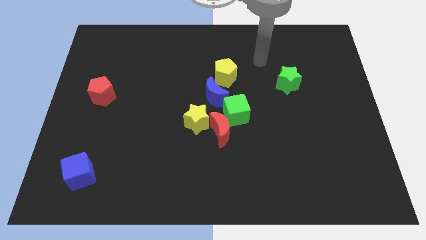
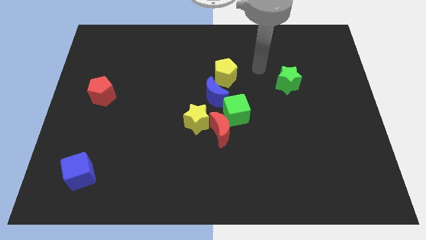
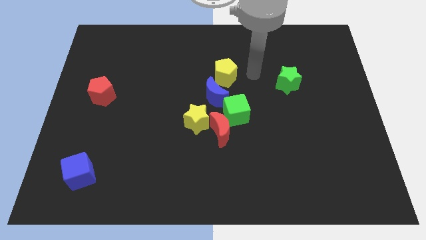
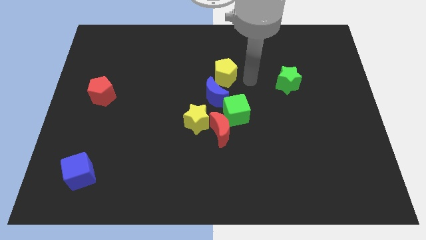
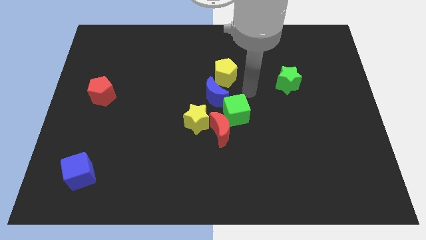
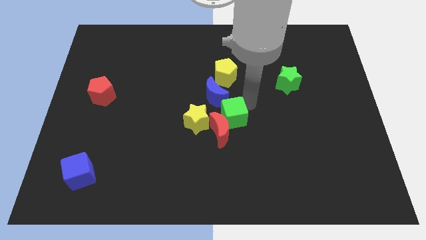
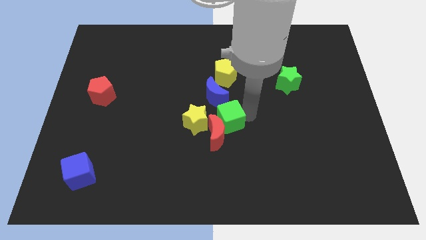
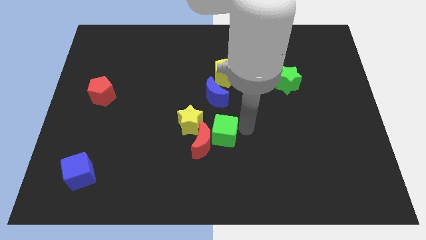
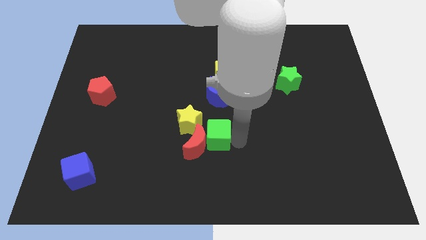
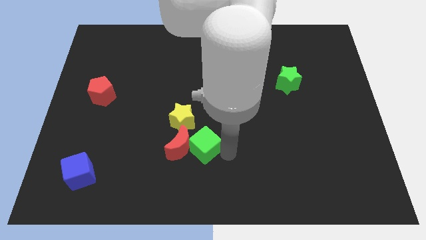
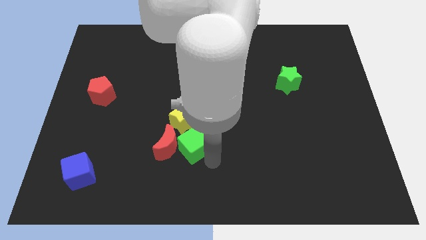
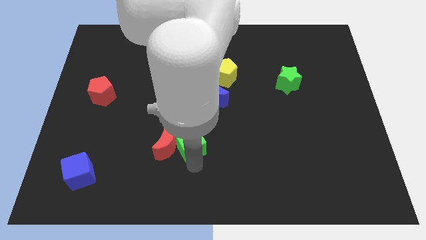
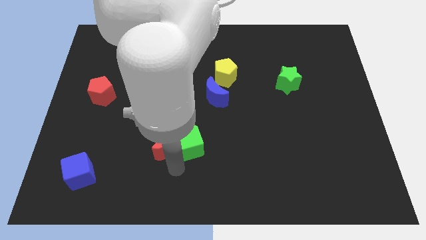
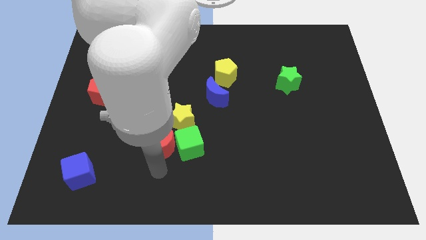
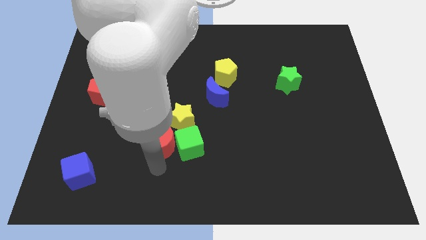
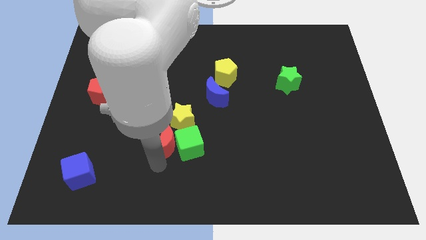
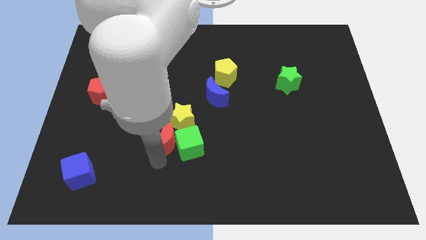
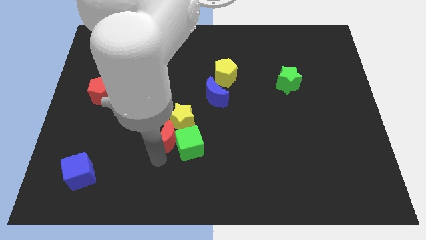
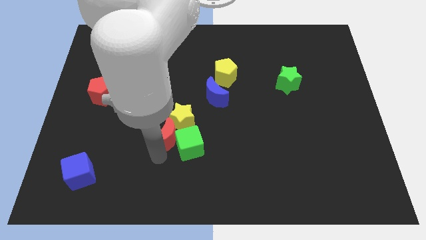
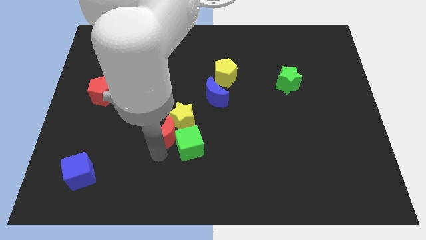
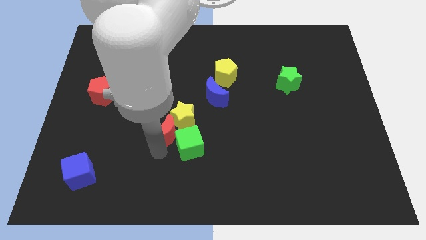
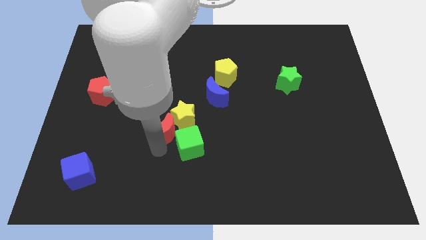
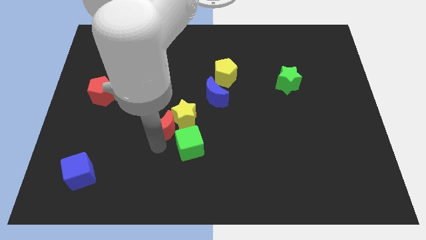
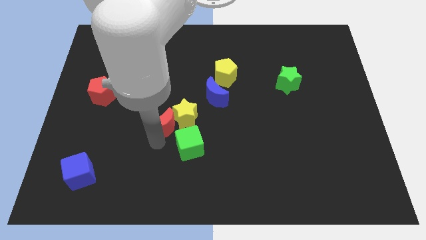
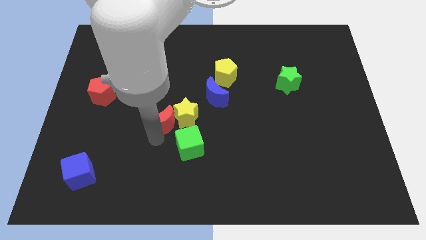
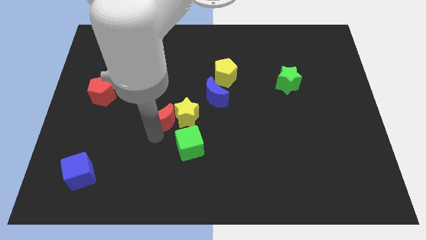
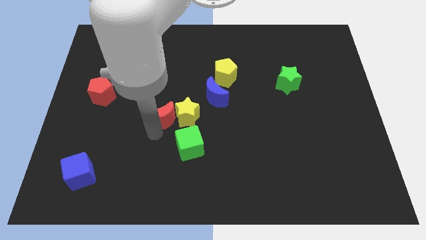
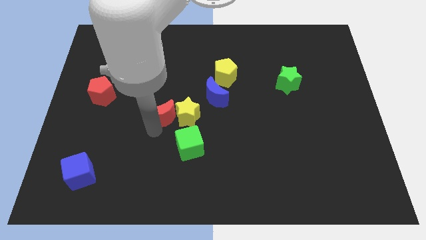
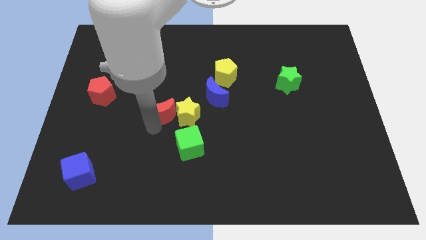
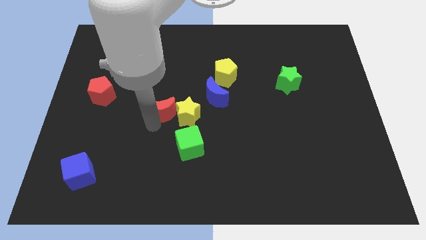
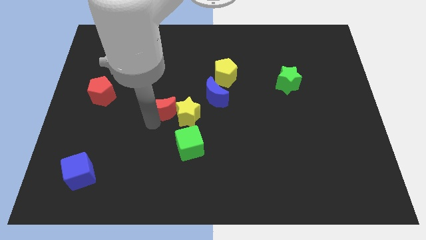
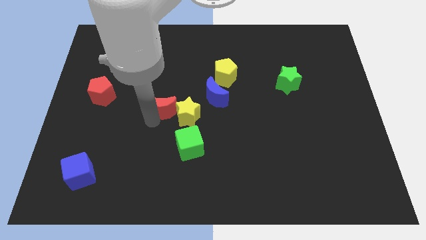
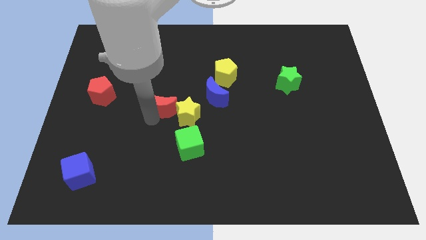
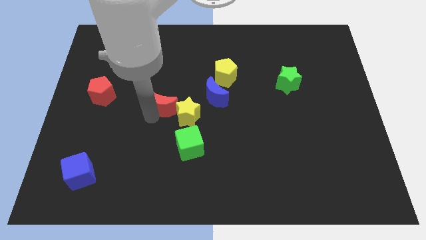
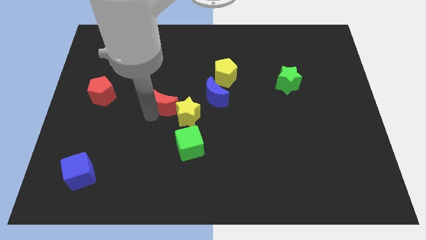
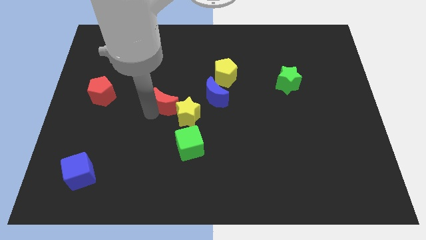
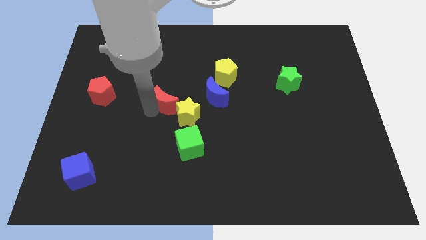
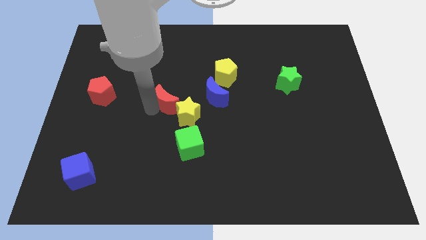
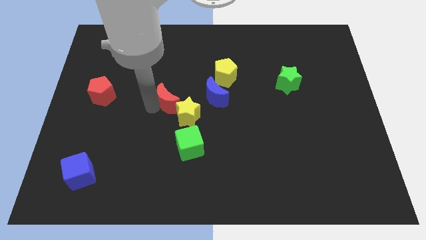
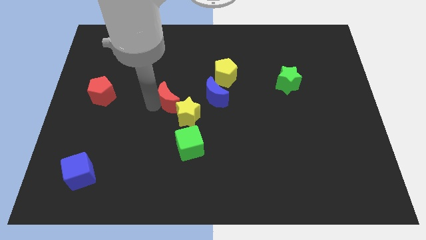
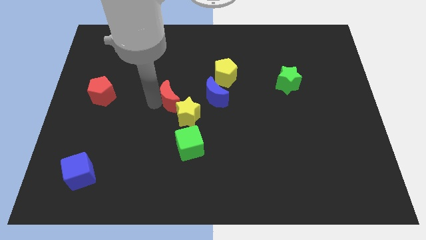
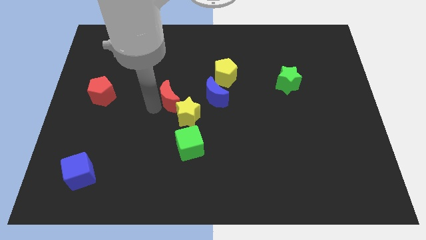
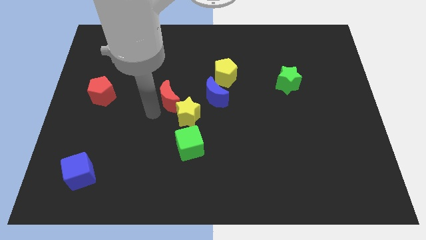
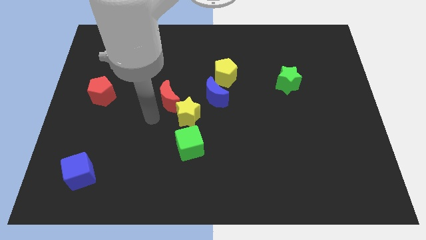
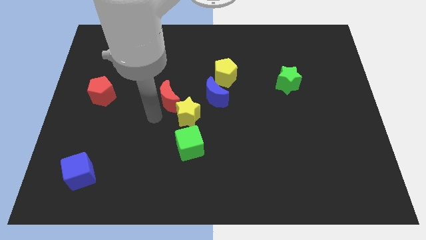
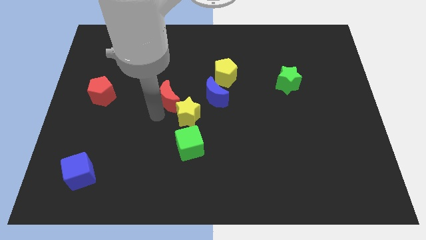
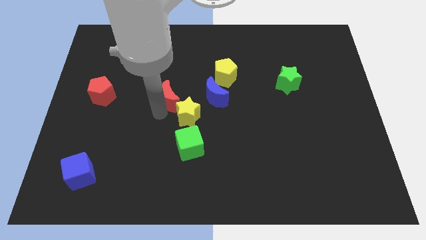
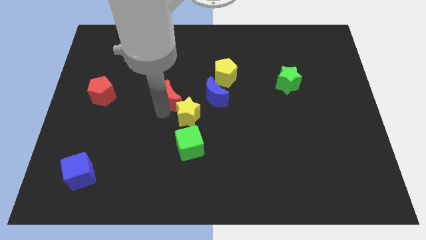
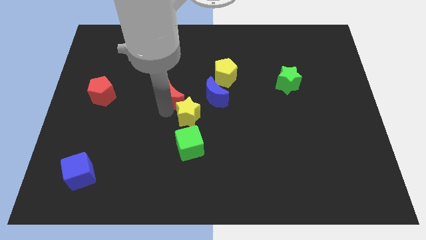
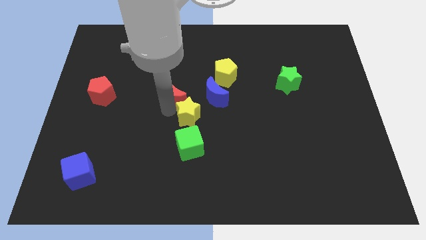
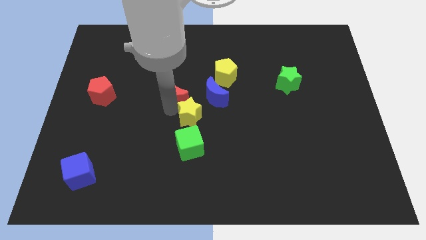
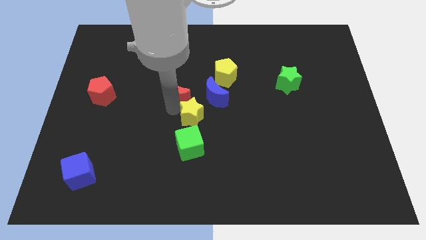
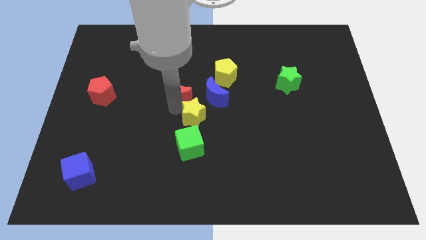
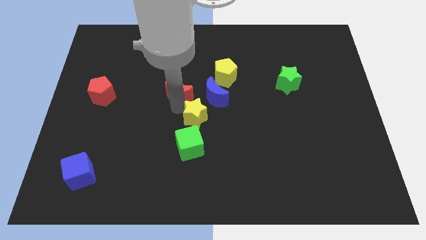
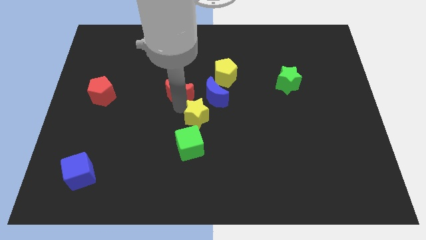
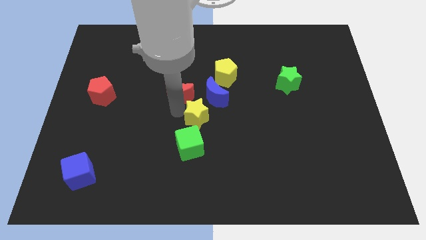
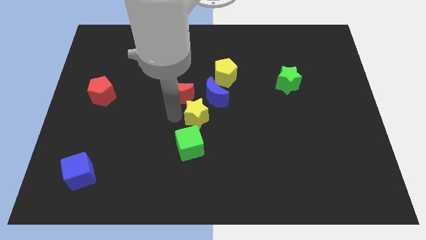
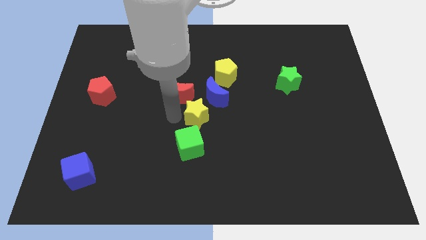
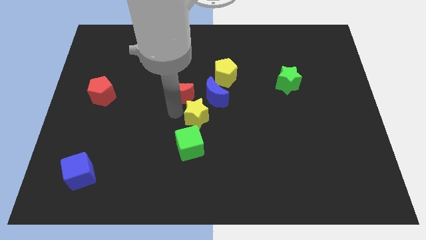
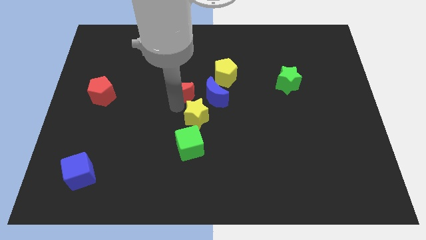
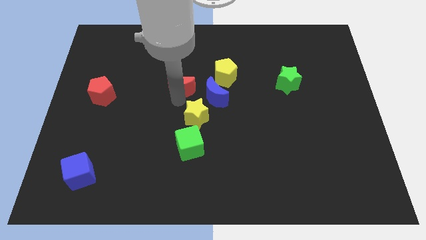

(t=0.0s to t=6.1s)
move the red moon just left of the yellow pentagon
